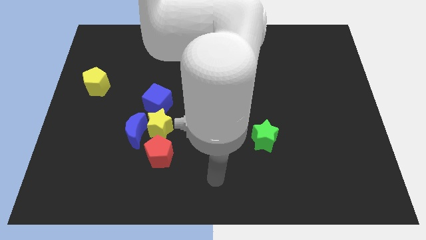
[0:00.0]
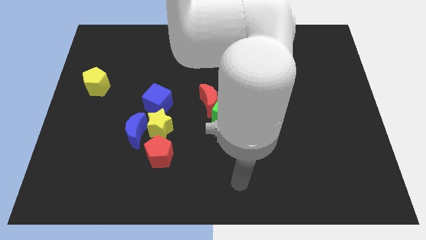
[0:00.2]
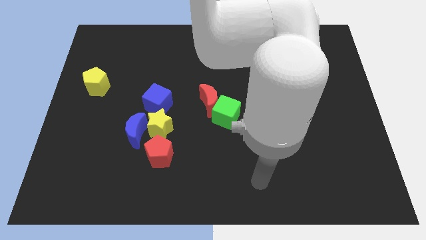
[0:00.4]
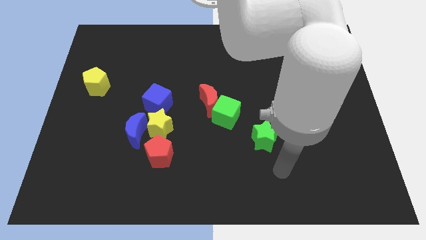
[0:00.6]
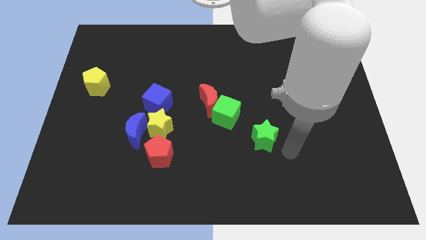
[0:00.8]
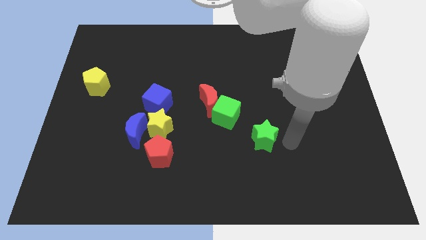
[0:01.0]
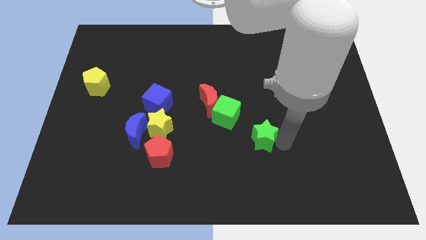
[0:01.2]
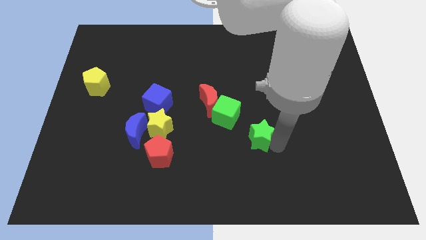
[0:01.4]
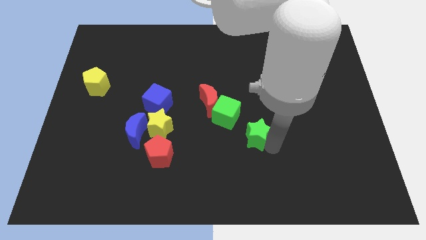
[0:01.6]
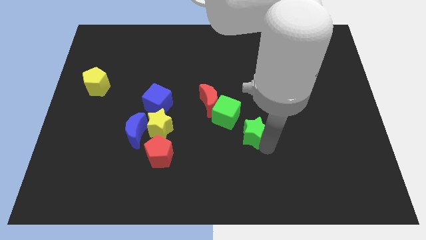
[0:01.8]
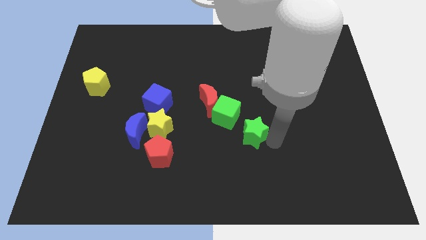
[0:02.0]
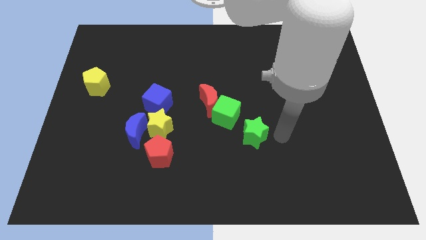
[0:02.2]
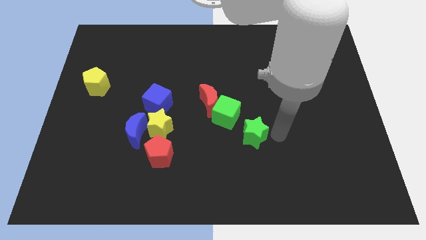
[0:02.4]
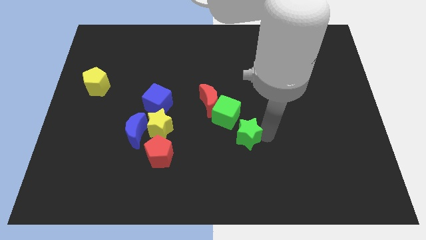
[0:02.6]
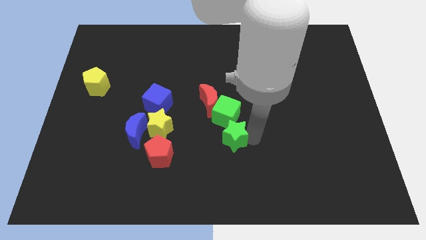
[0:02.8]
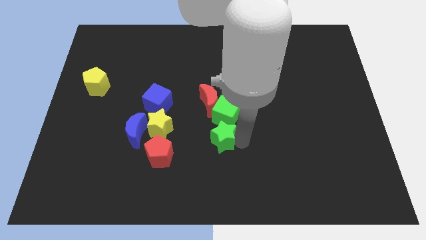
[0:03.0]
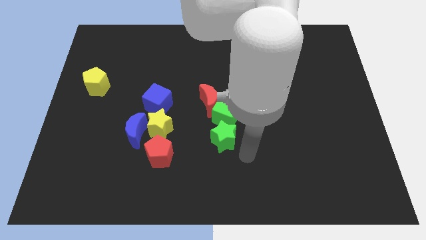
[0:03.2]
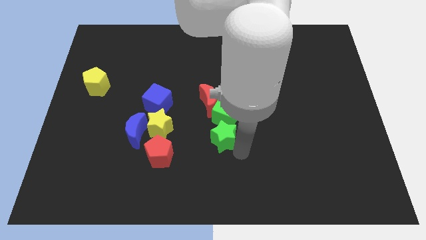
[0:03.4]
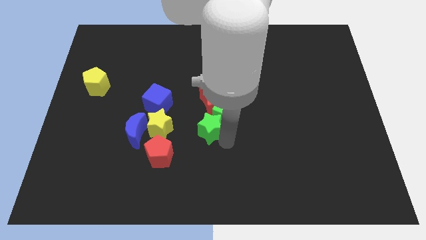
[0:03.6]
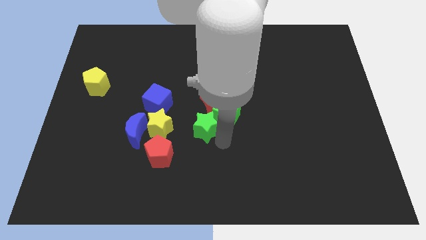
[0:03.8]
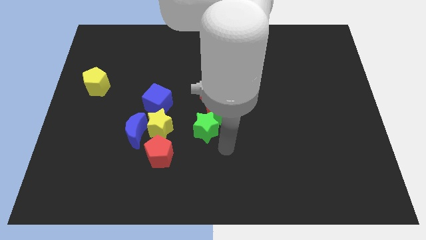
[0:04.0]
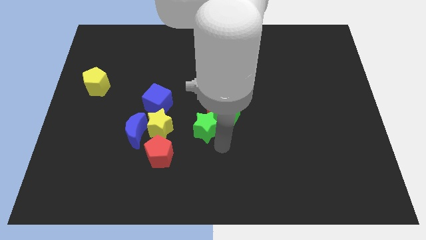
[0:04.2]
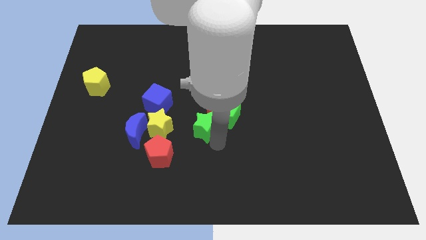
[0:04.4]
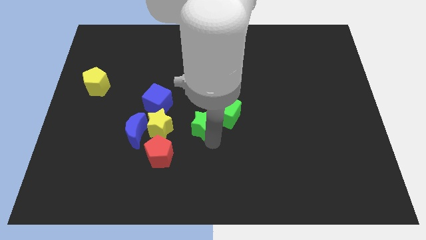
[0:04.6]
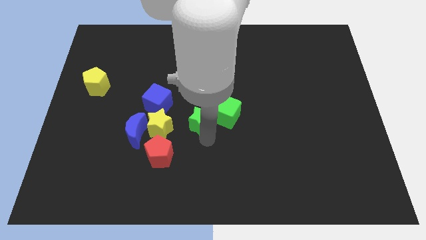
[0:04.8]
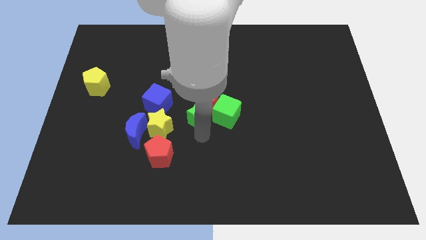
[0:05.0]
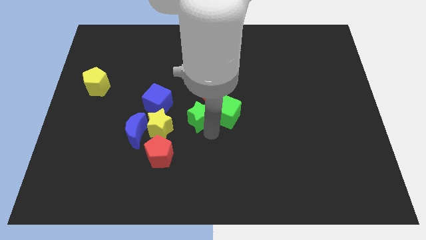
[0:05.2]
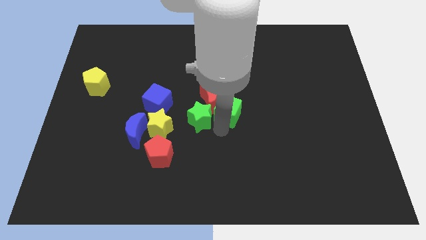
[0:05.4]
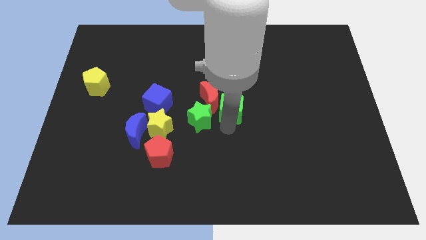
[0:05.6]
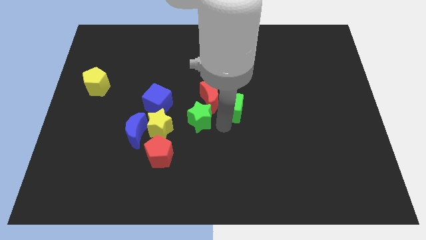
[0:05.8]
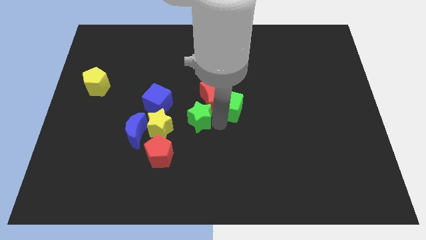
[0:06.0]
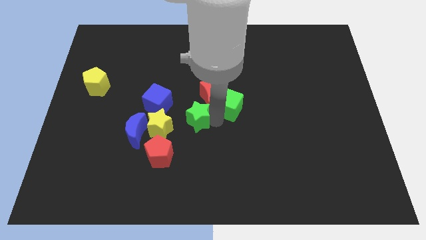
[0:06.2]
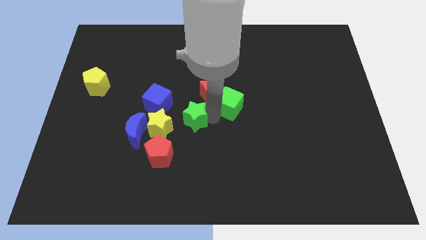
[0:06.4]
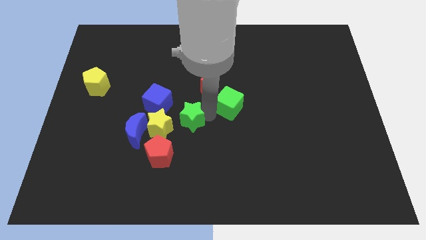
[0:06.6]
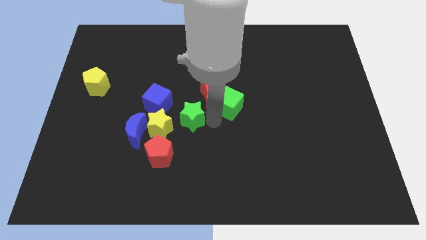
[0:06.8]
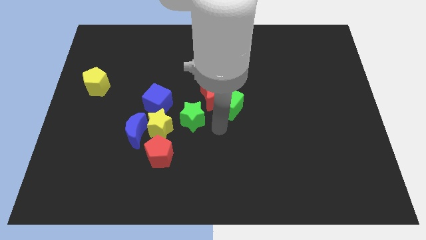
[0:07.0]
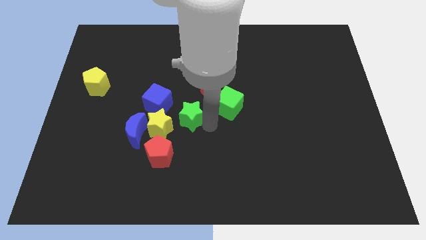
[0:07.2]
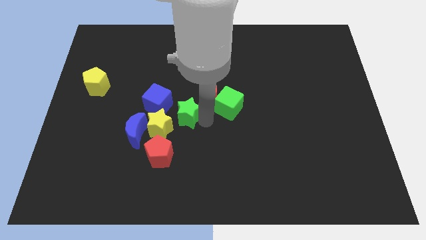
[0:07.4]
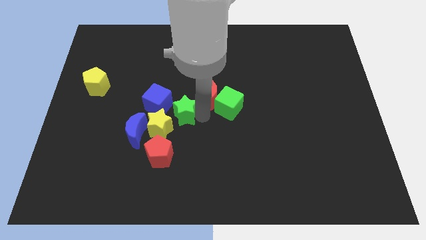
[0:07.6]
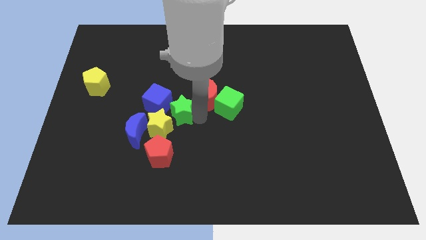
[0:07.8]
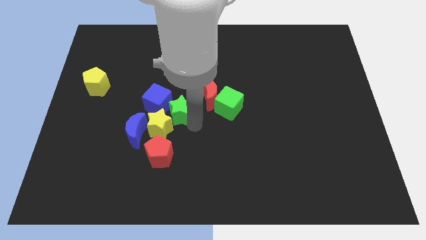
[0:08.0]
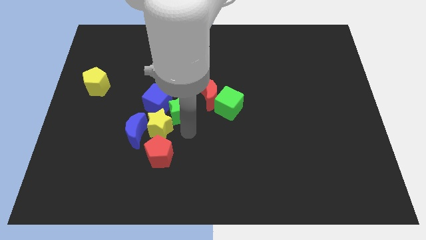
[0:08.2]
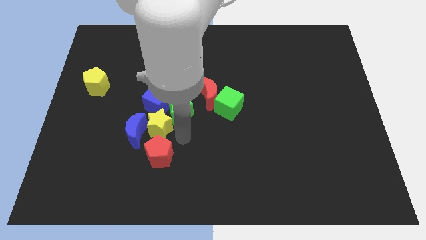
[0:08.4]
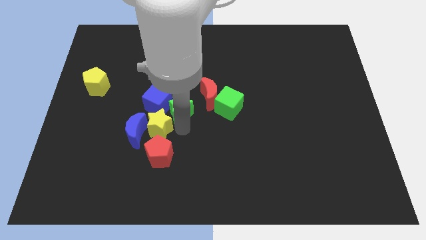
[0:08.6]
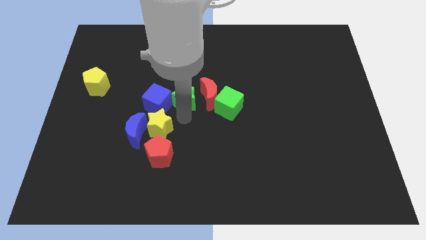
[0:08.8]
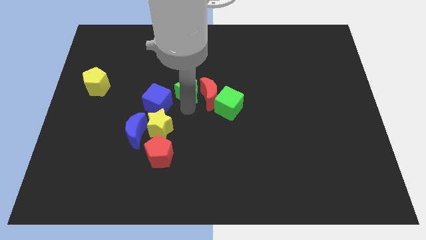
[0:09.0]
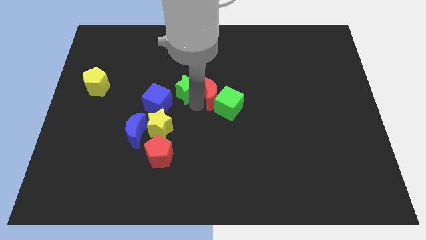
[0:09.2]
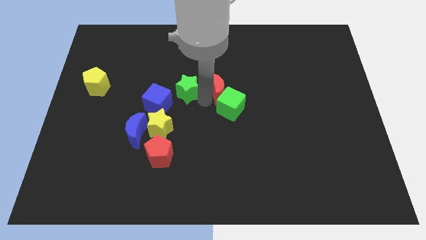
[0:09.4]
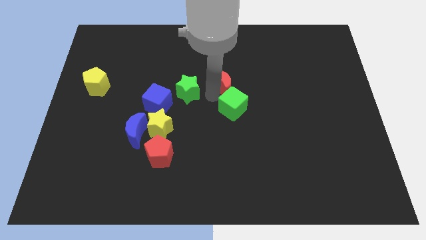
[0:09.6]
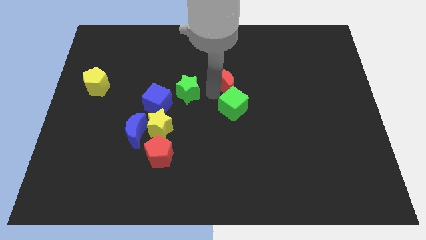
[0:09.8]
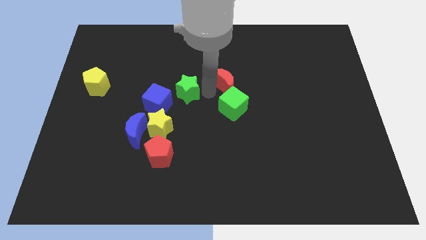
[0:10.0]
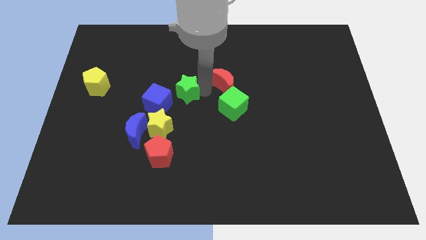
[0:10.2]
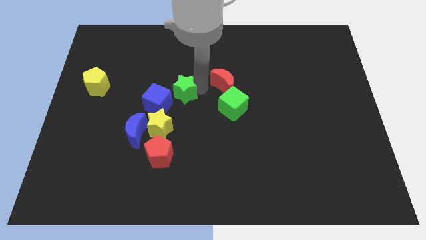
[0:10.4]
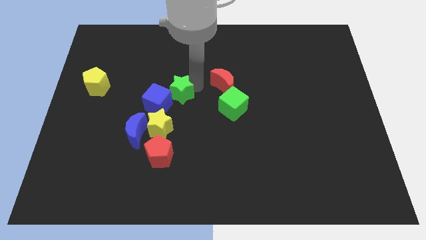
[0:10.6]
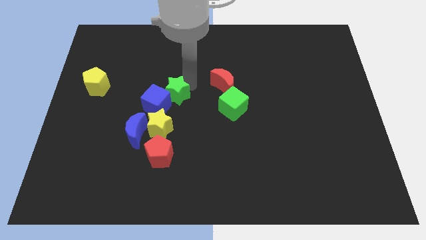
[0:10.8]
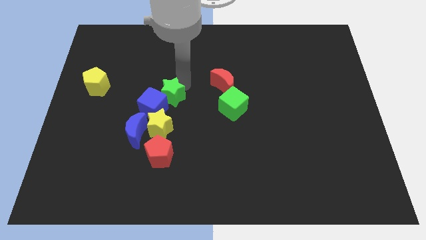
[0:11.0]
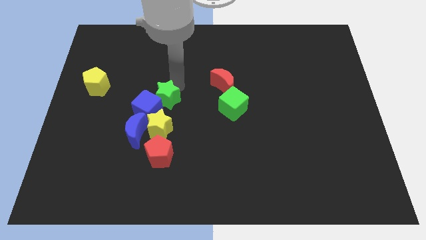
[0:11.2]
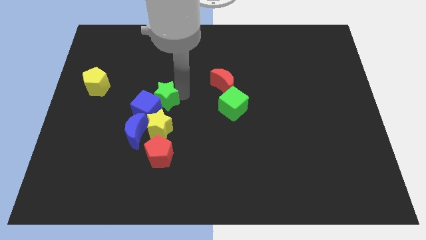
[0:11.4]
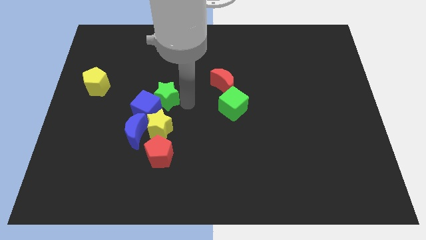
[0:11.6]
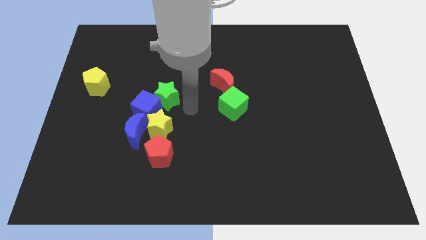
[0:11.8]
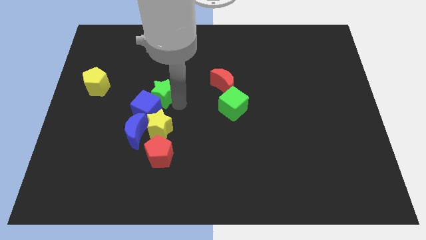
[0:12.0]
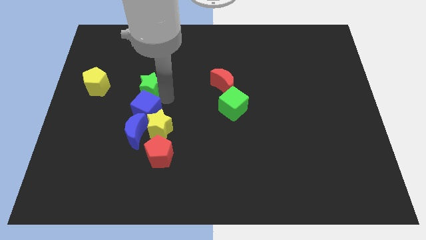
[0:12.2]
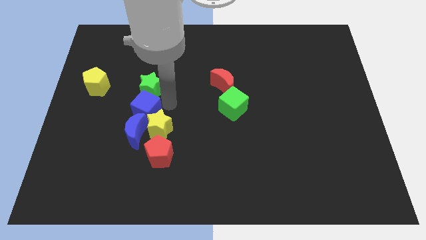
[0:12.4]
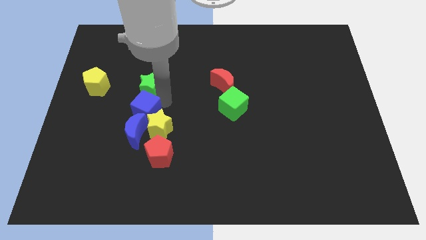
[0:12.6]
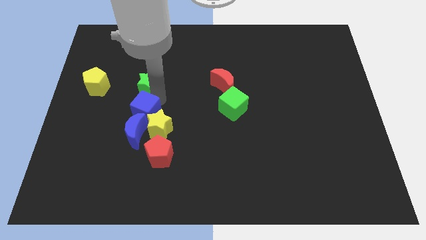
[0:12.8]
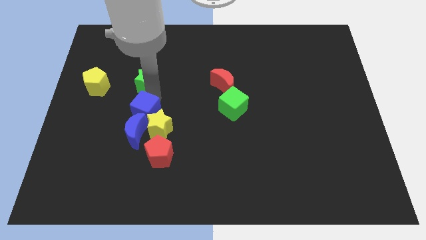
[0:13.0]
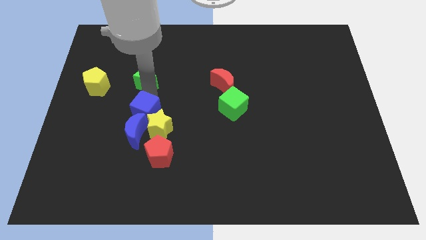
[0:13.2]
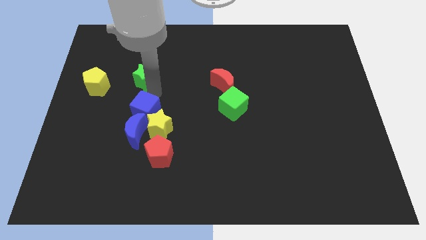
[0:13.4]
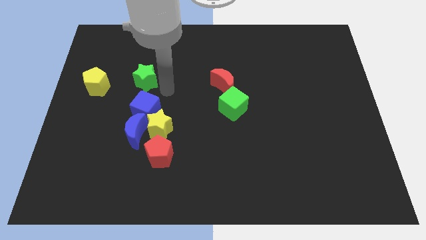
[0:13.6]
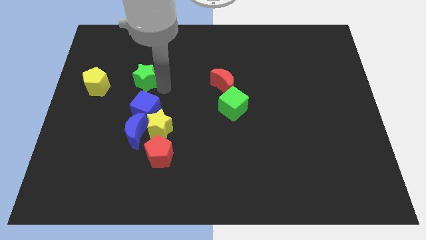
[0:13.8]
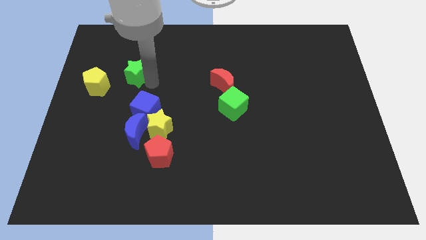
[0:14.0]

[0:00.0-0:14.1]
slide the green star diagonally up and to the right of the yellow pentagon
